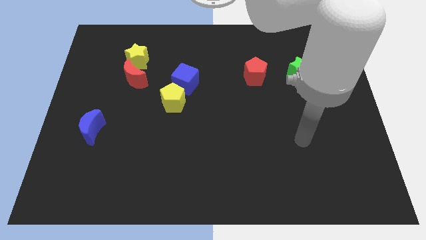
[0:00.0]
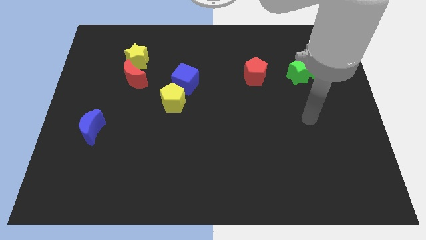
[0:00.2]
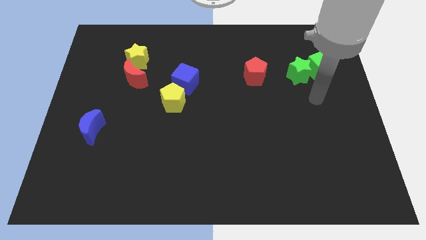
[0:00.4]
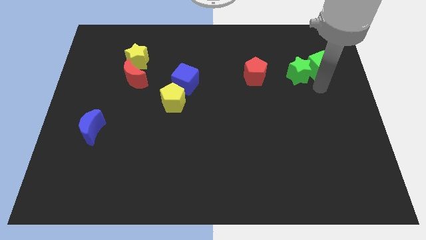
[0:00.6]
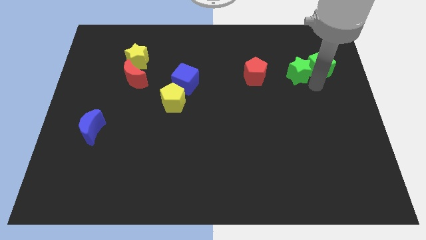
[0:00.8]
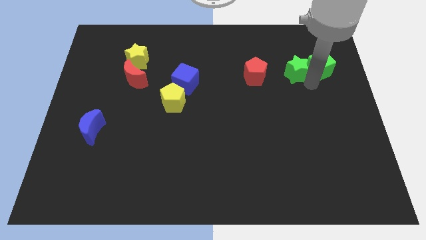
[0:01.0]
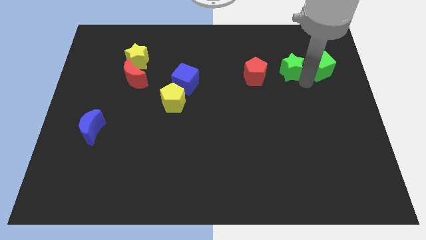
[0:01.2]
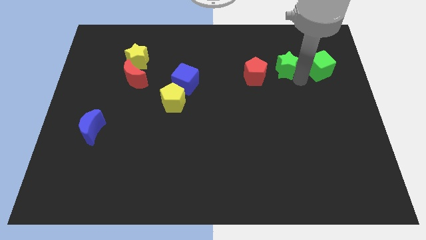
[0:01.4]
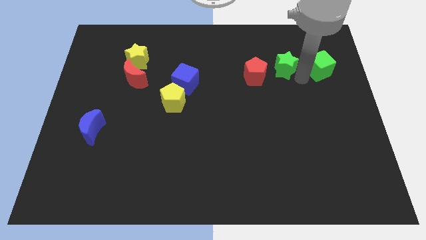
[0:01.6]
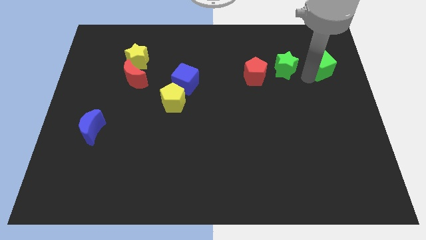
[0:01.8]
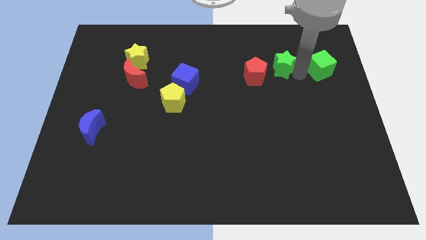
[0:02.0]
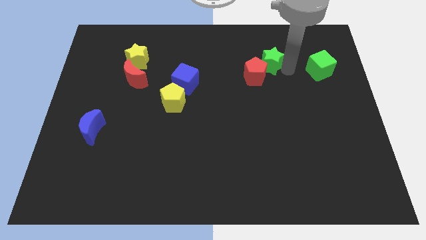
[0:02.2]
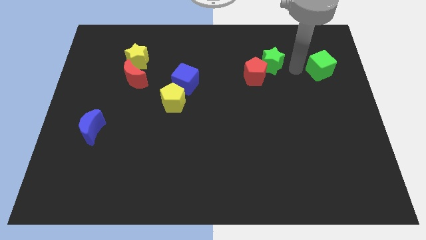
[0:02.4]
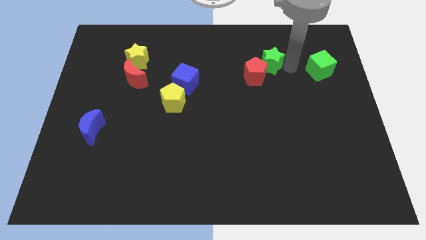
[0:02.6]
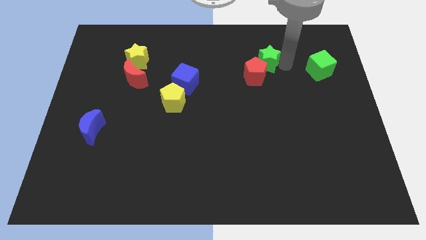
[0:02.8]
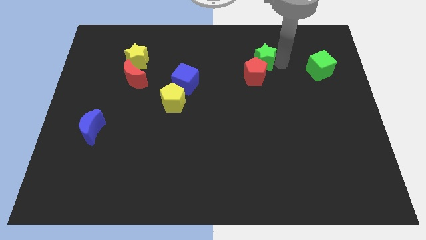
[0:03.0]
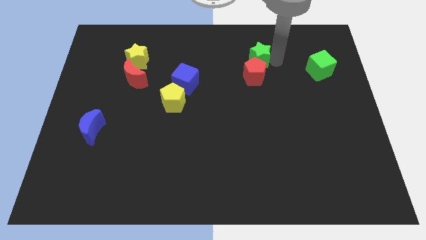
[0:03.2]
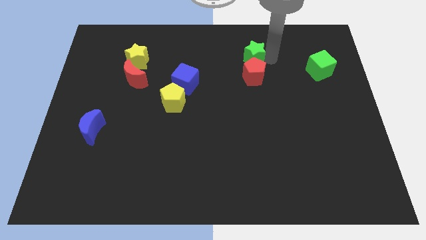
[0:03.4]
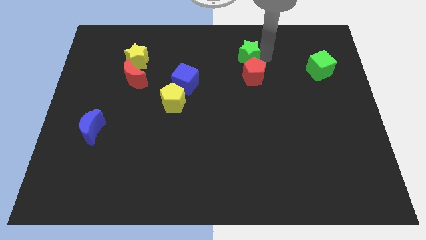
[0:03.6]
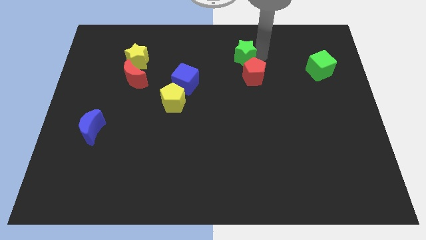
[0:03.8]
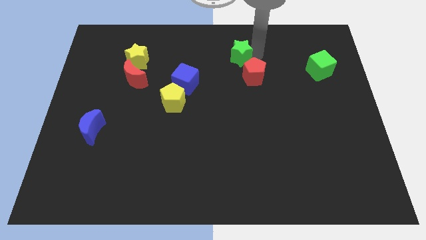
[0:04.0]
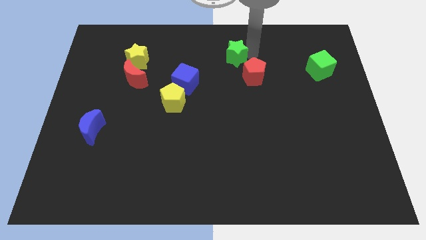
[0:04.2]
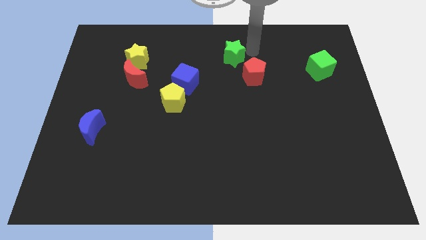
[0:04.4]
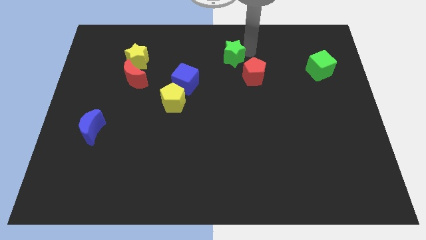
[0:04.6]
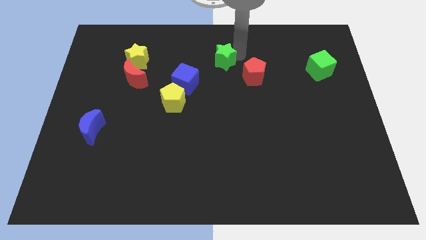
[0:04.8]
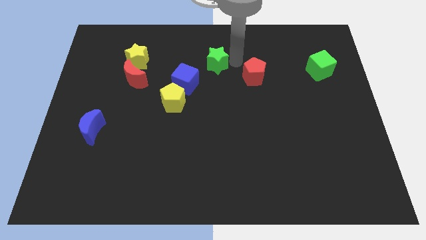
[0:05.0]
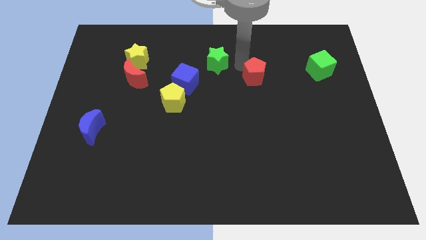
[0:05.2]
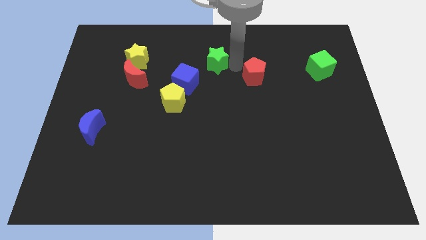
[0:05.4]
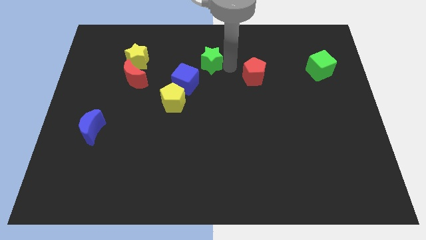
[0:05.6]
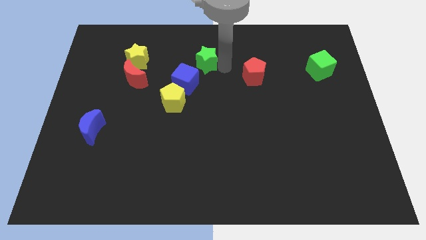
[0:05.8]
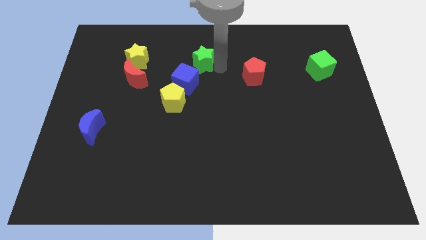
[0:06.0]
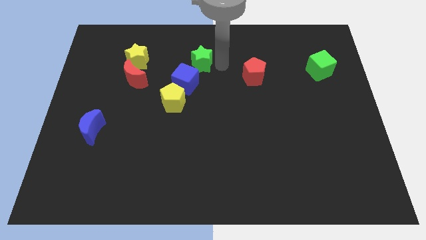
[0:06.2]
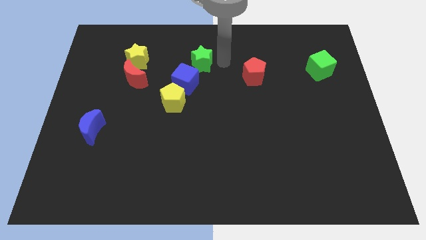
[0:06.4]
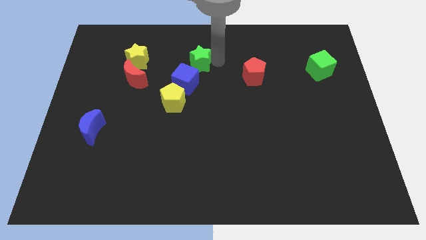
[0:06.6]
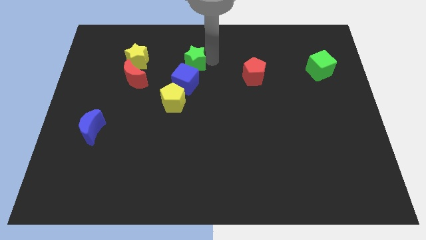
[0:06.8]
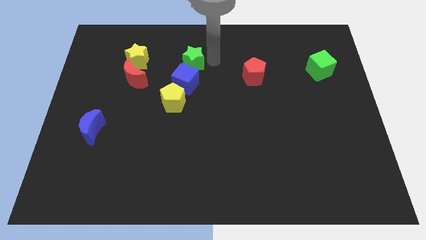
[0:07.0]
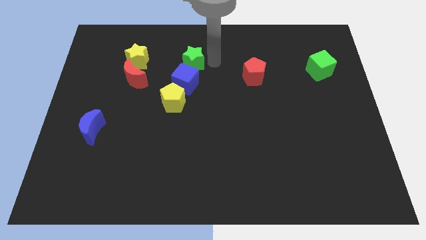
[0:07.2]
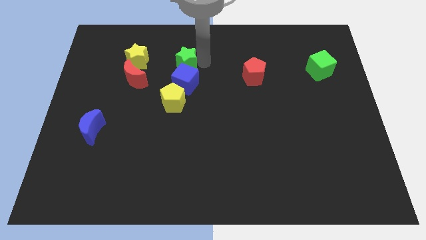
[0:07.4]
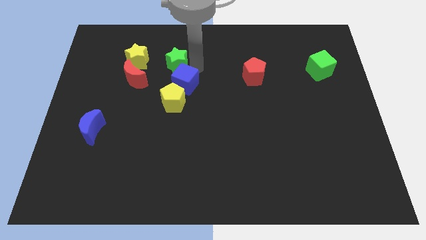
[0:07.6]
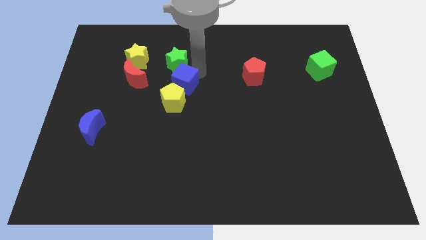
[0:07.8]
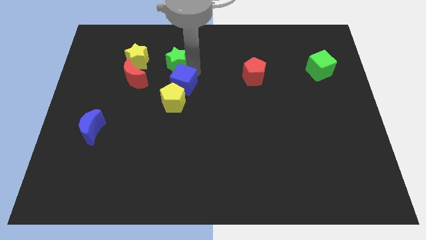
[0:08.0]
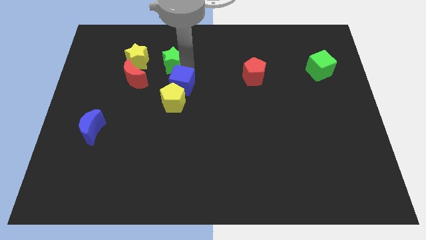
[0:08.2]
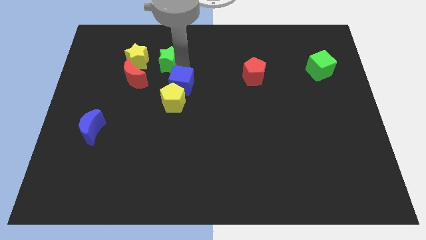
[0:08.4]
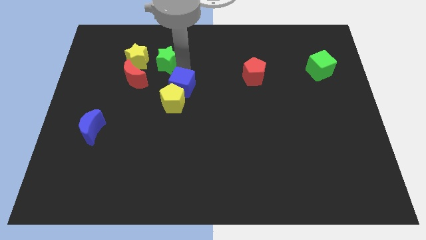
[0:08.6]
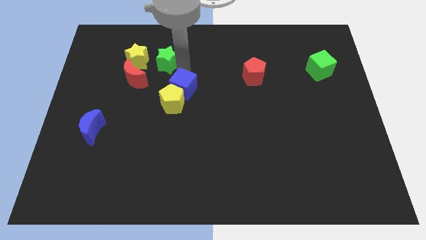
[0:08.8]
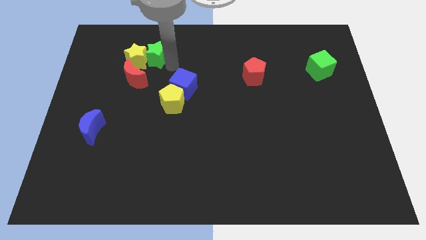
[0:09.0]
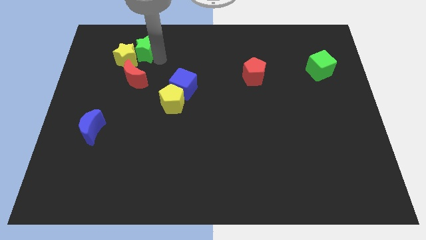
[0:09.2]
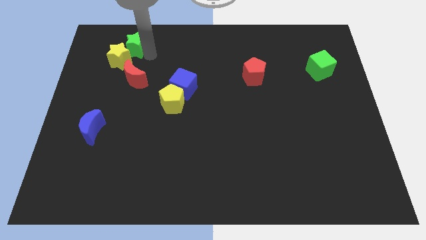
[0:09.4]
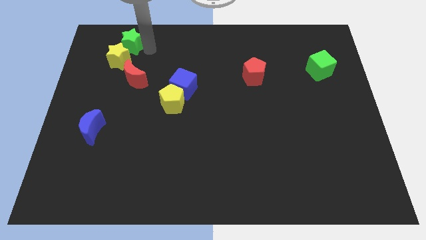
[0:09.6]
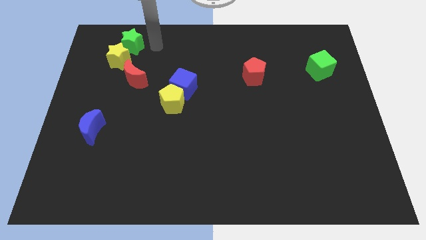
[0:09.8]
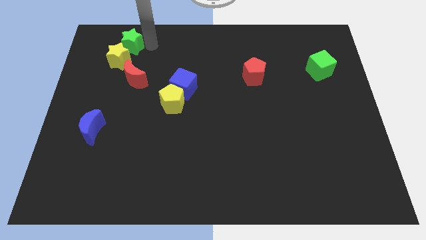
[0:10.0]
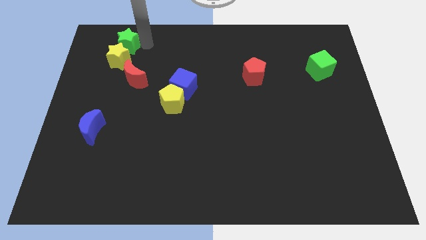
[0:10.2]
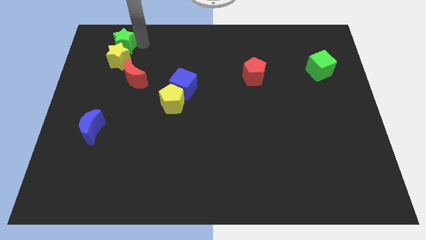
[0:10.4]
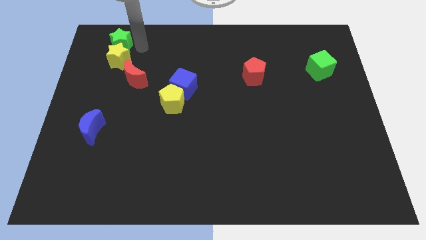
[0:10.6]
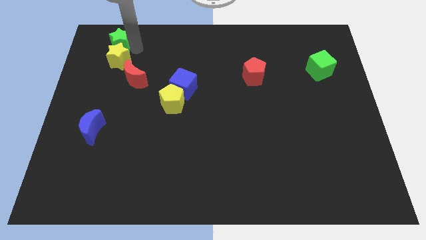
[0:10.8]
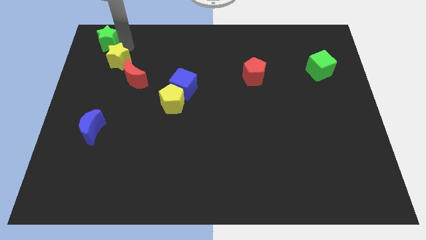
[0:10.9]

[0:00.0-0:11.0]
put the green star to the top left corner

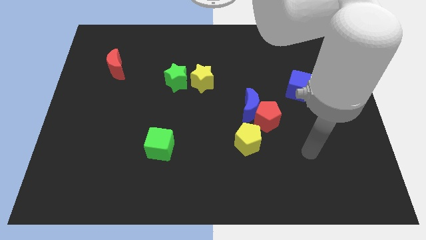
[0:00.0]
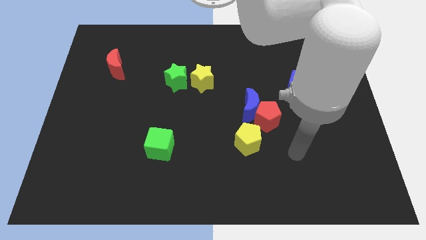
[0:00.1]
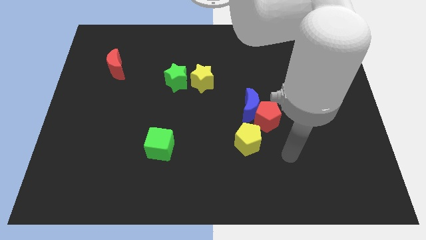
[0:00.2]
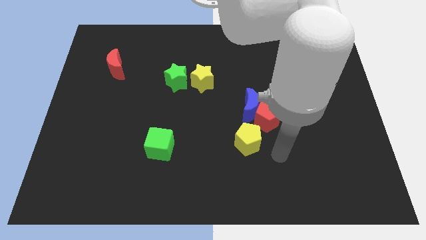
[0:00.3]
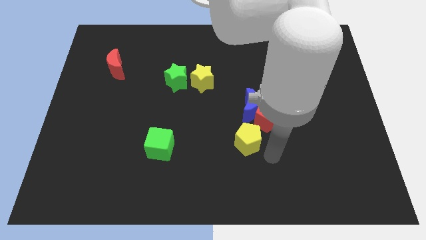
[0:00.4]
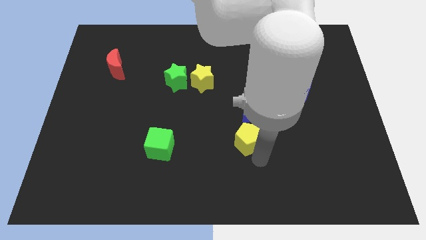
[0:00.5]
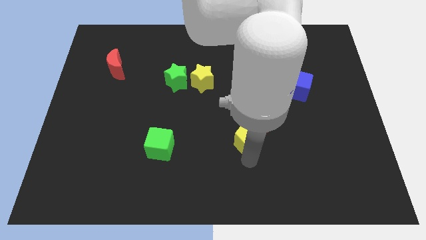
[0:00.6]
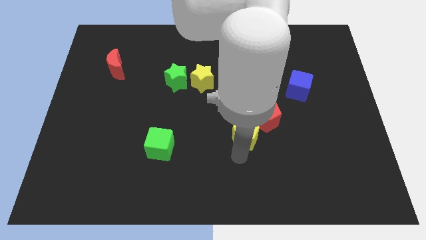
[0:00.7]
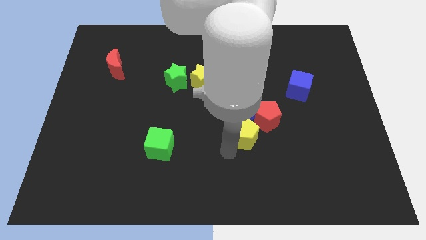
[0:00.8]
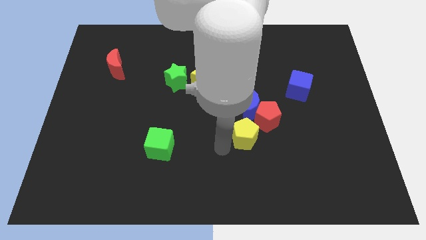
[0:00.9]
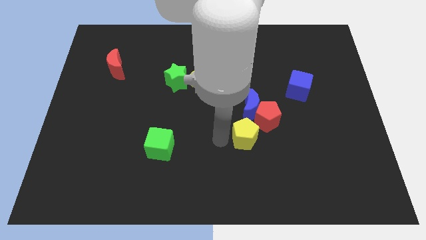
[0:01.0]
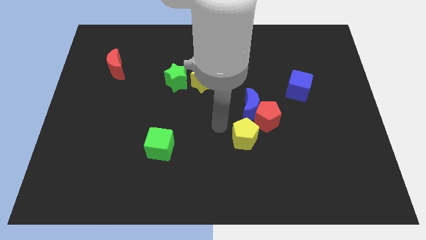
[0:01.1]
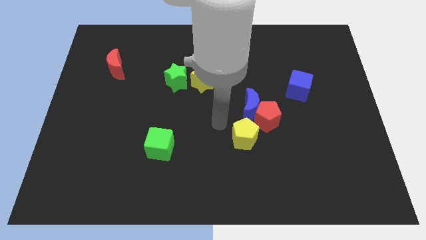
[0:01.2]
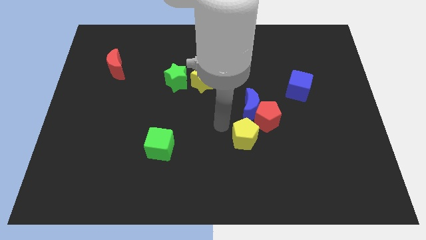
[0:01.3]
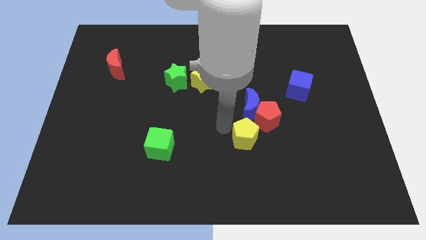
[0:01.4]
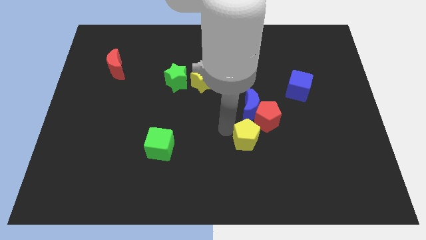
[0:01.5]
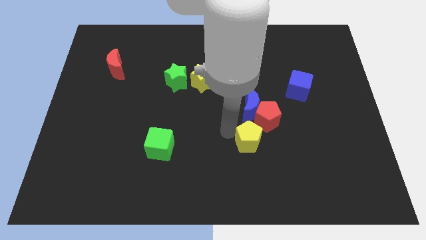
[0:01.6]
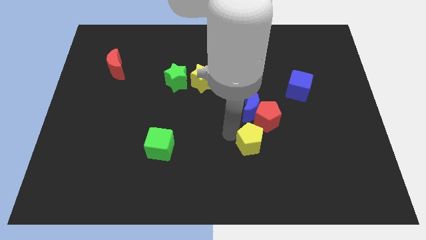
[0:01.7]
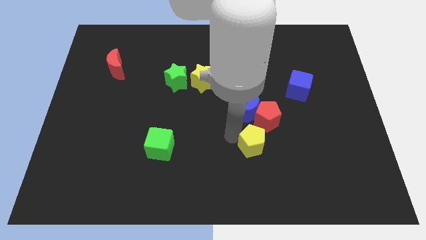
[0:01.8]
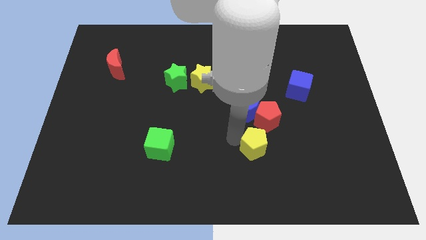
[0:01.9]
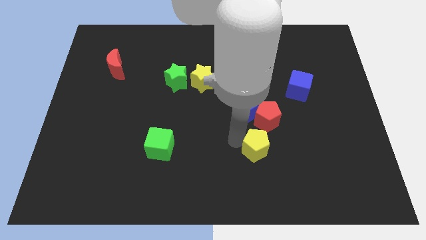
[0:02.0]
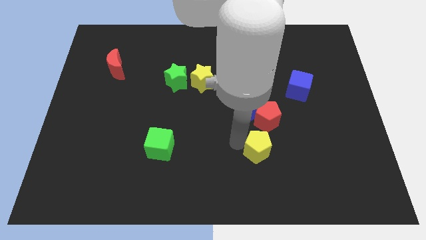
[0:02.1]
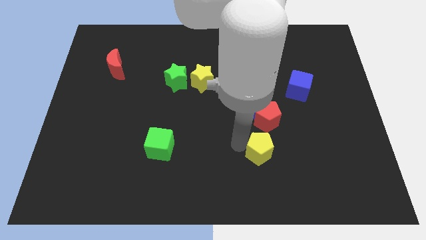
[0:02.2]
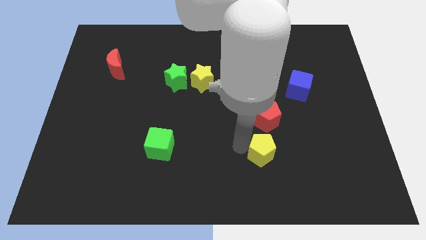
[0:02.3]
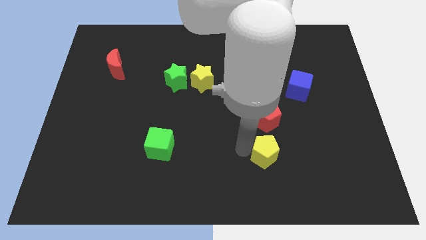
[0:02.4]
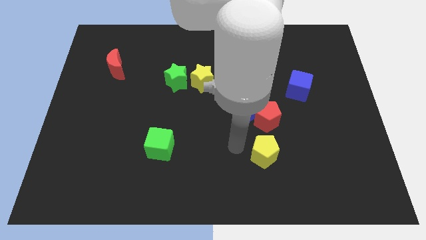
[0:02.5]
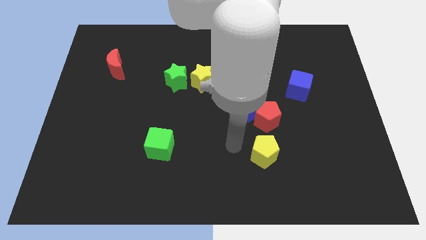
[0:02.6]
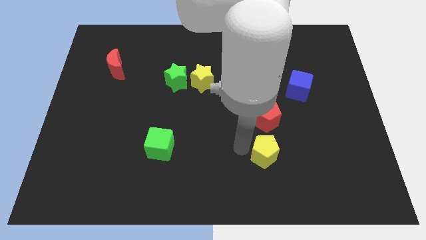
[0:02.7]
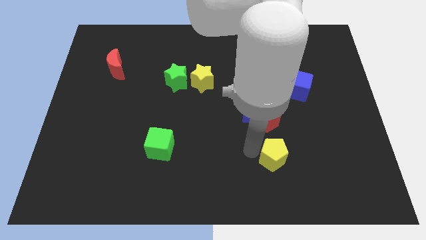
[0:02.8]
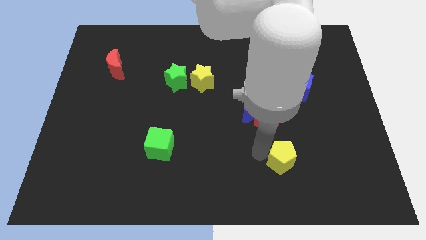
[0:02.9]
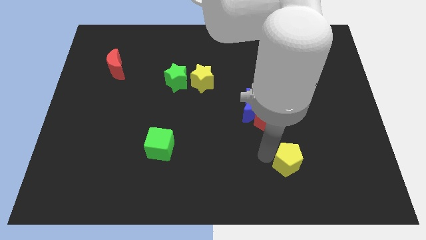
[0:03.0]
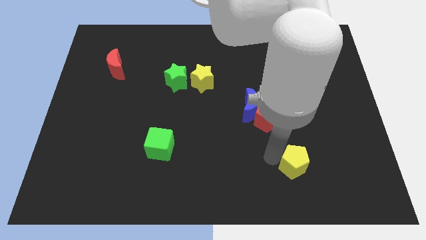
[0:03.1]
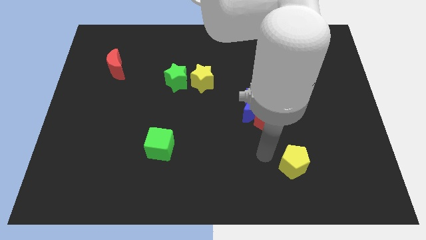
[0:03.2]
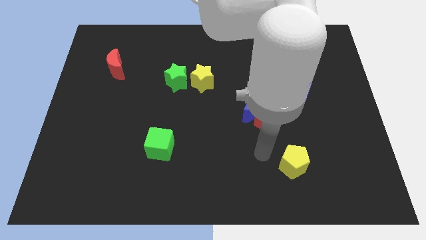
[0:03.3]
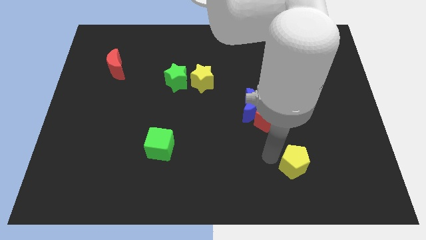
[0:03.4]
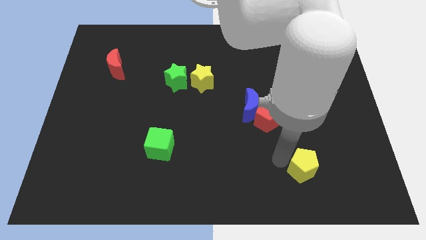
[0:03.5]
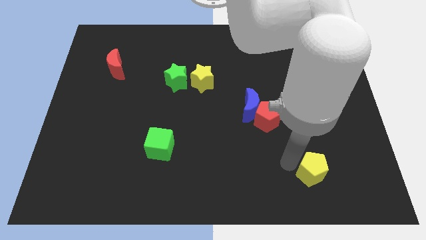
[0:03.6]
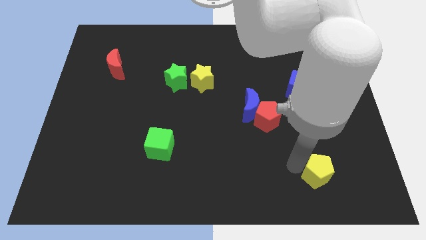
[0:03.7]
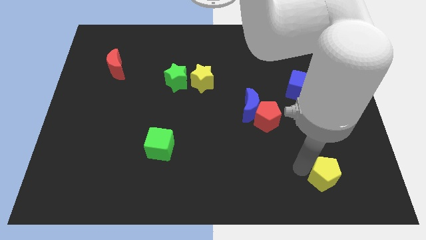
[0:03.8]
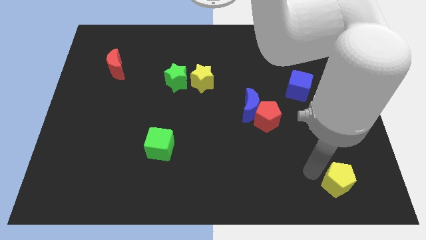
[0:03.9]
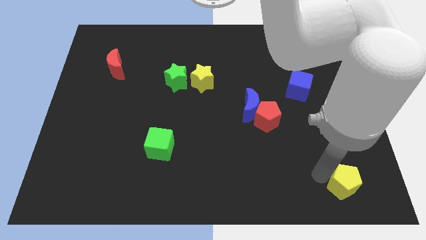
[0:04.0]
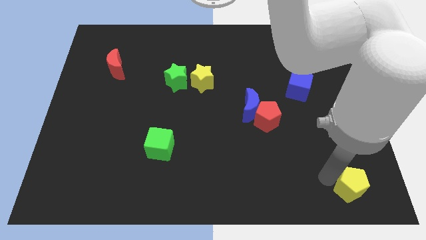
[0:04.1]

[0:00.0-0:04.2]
slide the yellow pentagon to the bottom right corner
